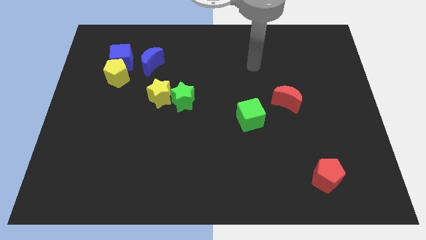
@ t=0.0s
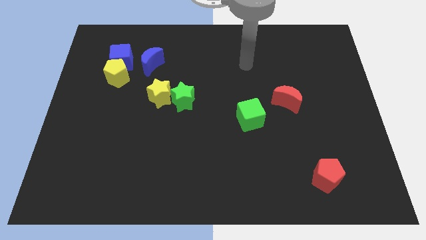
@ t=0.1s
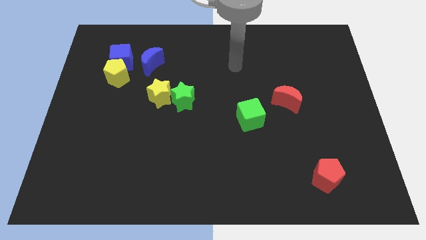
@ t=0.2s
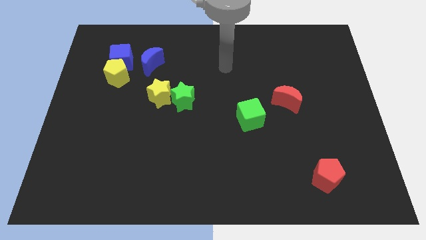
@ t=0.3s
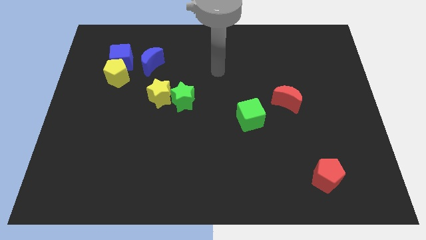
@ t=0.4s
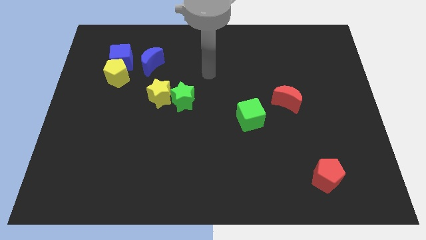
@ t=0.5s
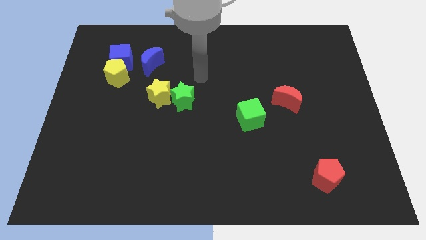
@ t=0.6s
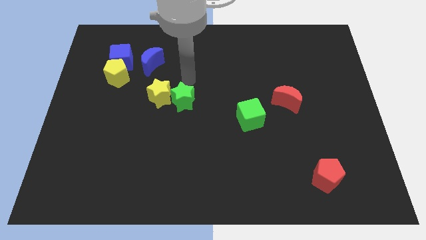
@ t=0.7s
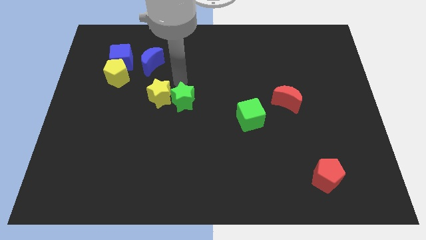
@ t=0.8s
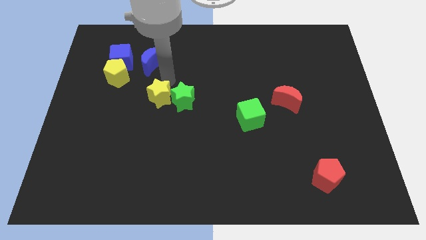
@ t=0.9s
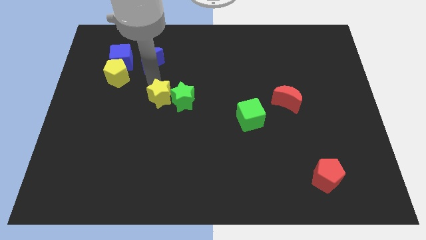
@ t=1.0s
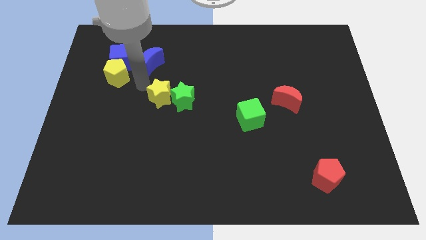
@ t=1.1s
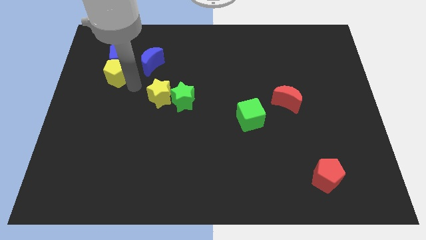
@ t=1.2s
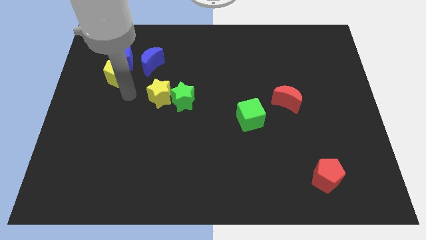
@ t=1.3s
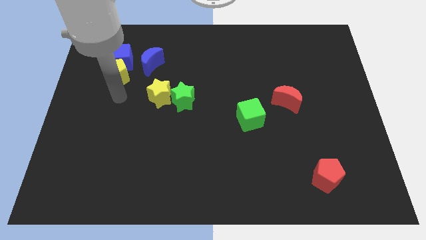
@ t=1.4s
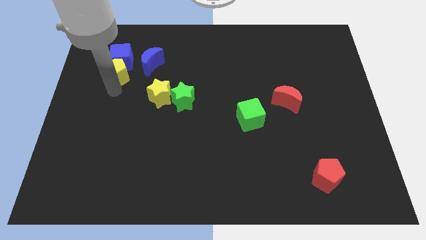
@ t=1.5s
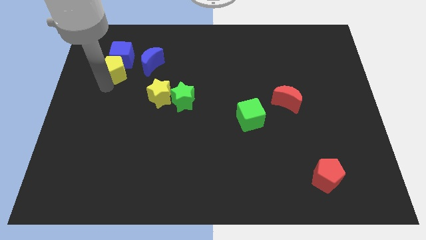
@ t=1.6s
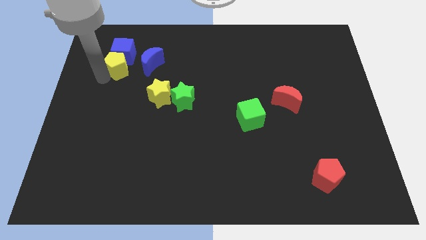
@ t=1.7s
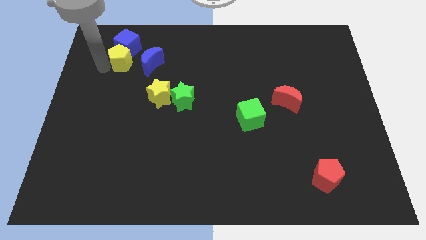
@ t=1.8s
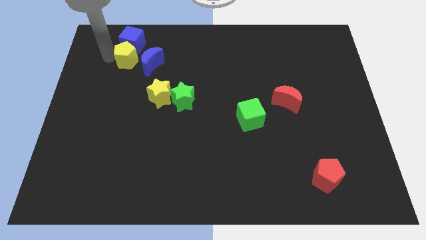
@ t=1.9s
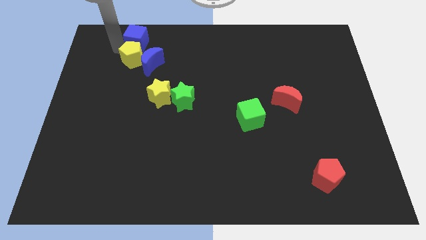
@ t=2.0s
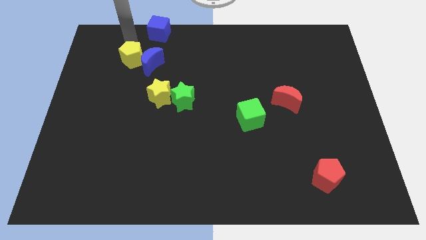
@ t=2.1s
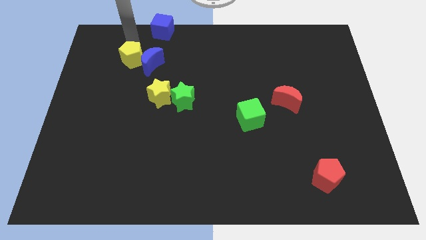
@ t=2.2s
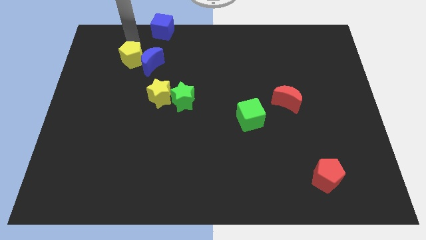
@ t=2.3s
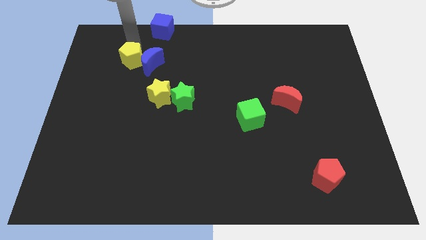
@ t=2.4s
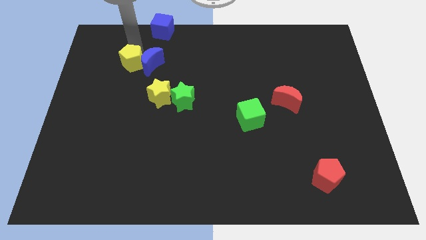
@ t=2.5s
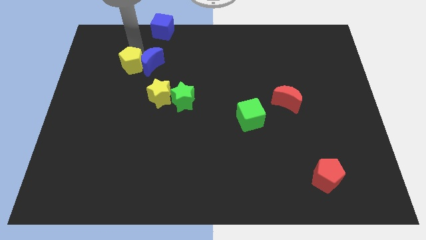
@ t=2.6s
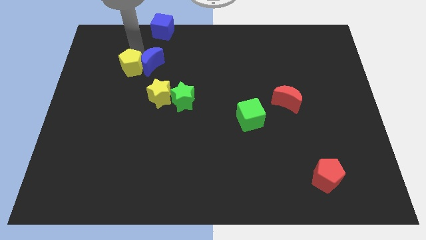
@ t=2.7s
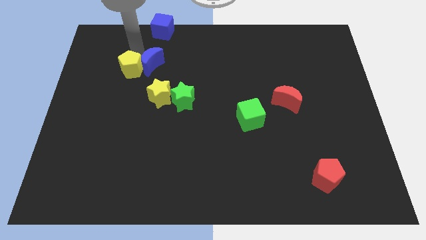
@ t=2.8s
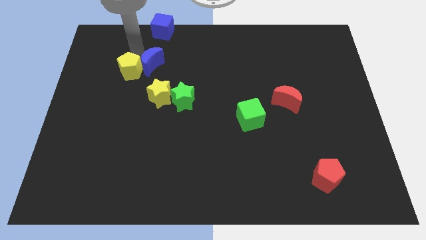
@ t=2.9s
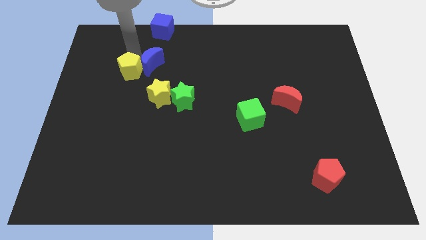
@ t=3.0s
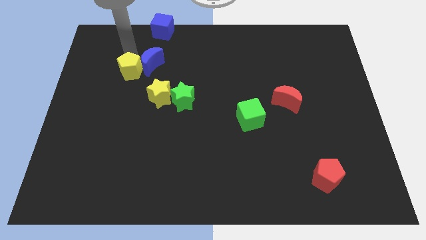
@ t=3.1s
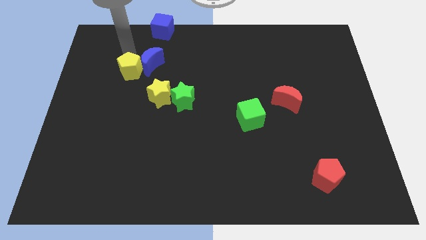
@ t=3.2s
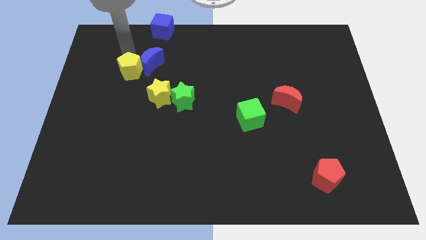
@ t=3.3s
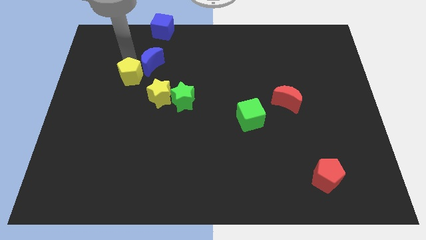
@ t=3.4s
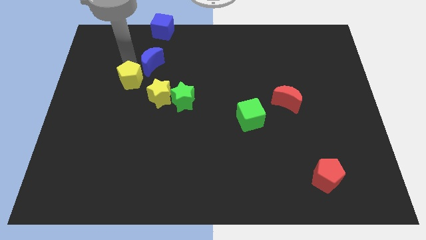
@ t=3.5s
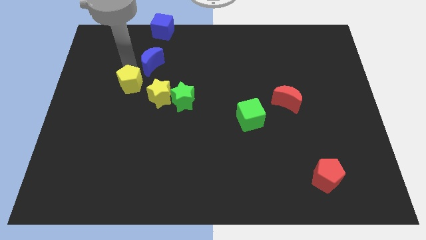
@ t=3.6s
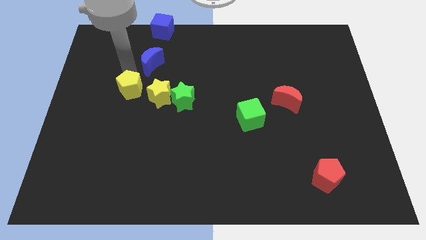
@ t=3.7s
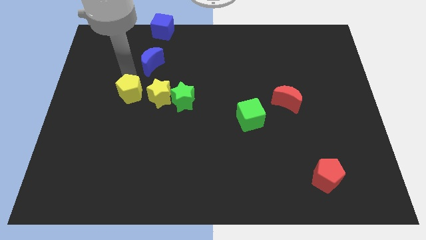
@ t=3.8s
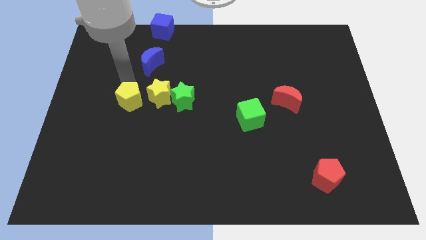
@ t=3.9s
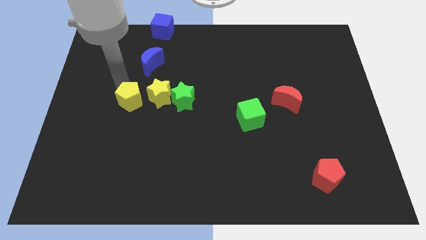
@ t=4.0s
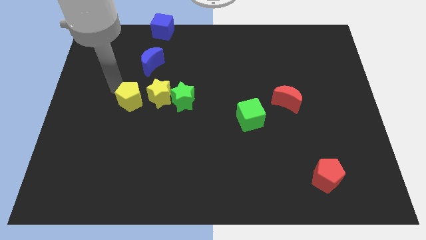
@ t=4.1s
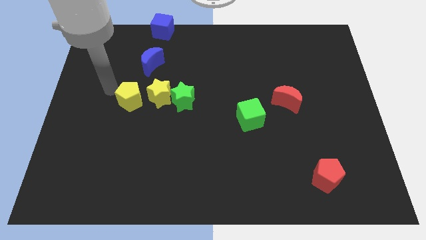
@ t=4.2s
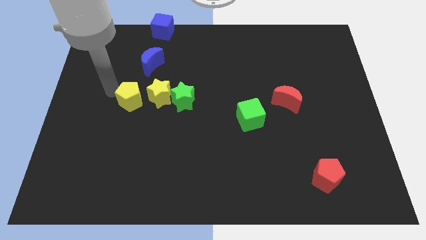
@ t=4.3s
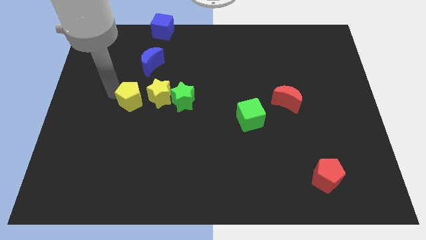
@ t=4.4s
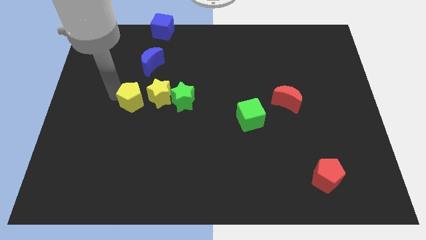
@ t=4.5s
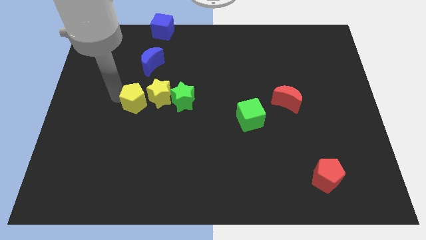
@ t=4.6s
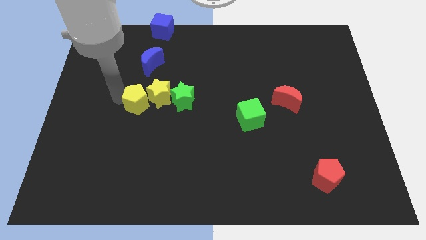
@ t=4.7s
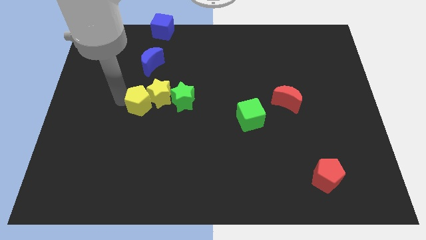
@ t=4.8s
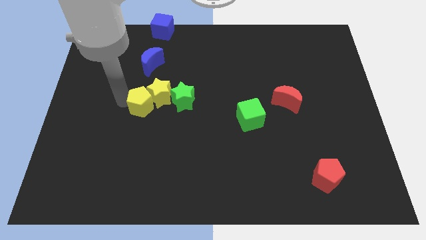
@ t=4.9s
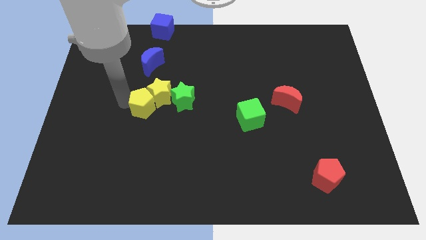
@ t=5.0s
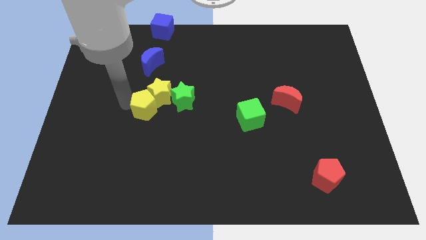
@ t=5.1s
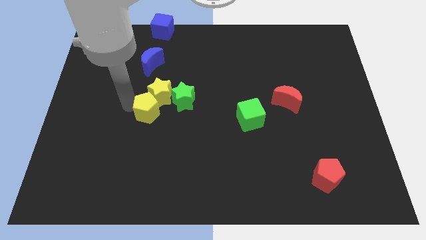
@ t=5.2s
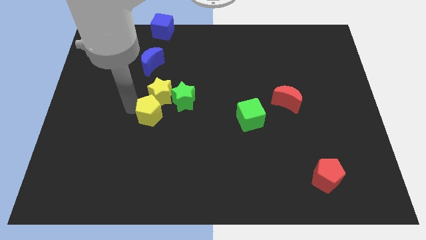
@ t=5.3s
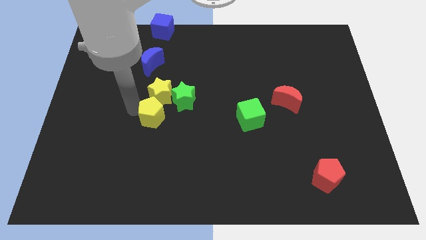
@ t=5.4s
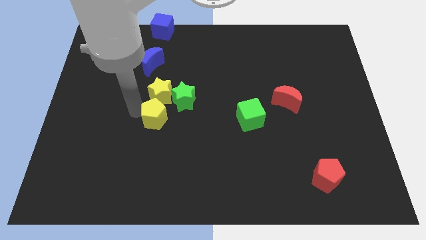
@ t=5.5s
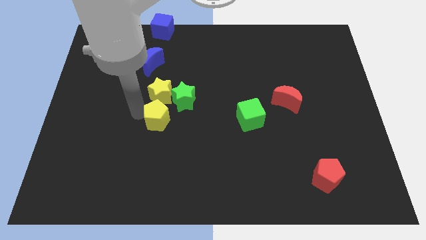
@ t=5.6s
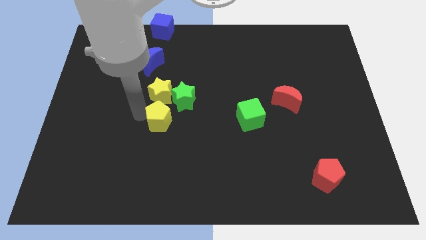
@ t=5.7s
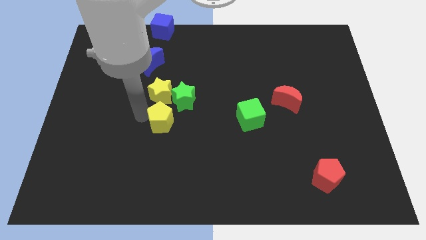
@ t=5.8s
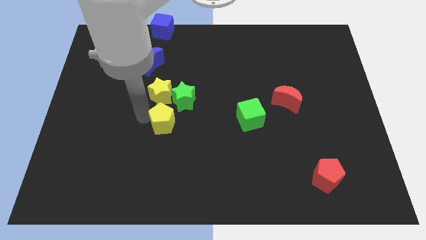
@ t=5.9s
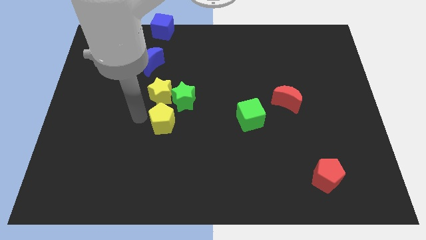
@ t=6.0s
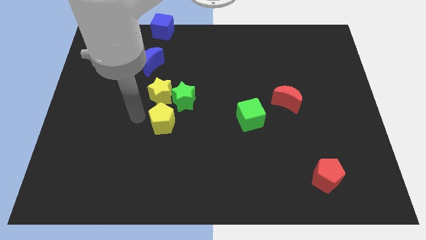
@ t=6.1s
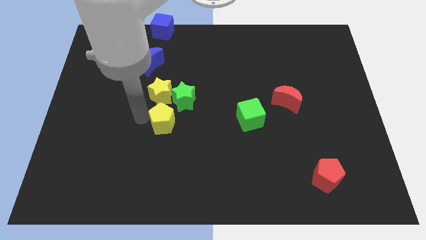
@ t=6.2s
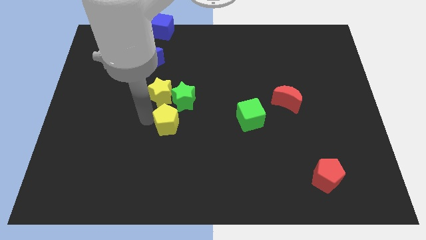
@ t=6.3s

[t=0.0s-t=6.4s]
push the yellow pentagon down and right

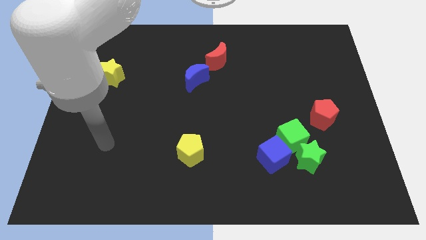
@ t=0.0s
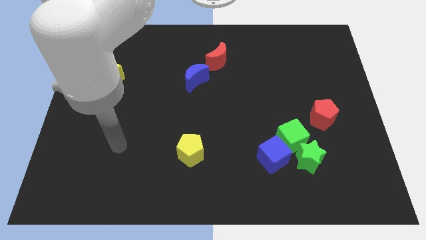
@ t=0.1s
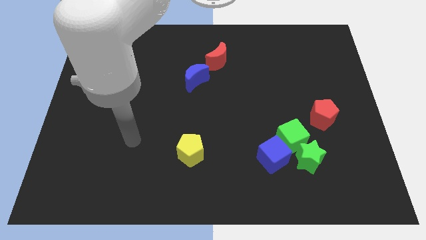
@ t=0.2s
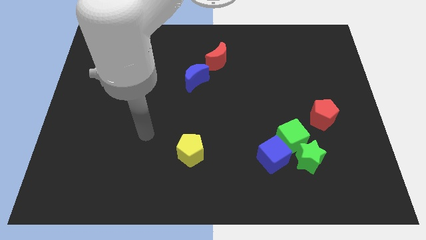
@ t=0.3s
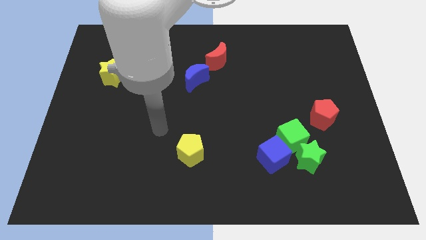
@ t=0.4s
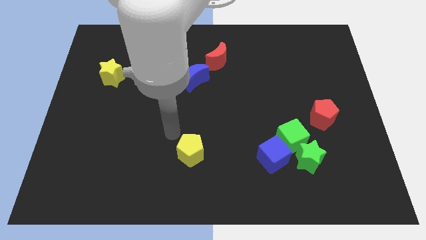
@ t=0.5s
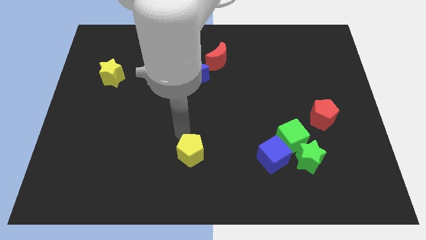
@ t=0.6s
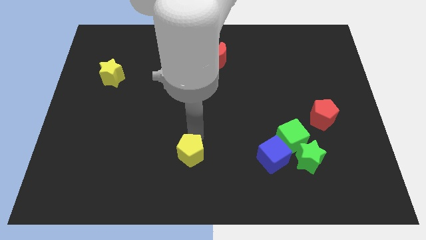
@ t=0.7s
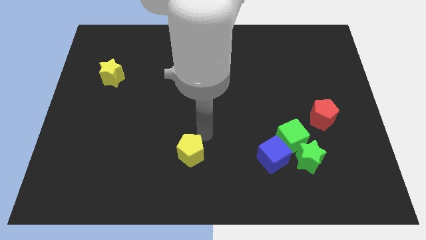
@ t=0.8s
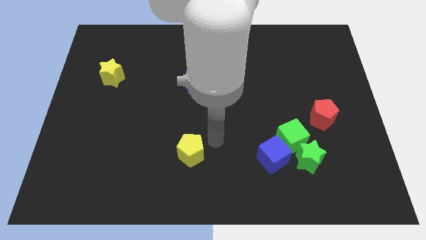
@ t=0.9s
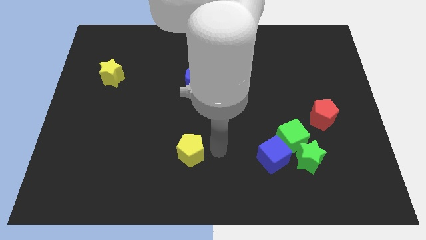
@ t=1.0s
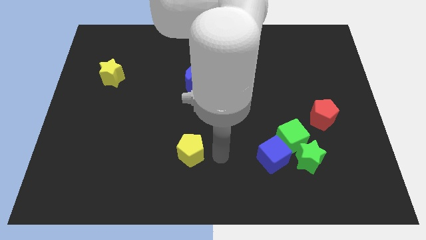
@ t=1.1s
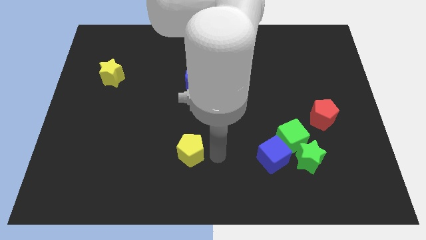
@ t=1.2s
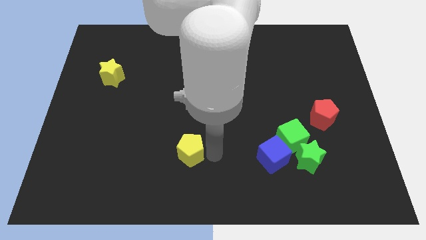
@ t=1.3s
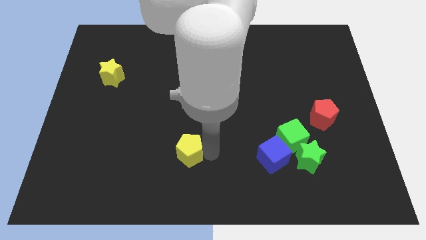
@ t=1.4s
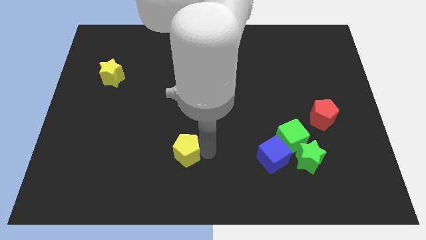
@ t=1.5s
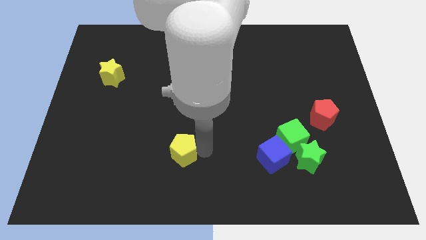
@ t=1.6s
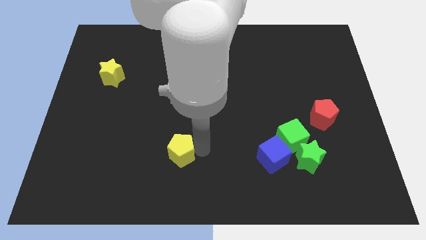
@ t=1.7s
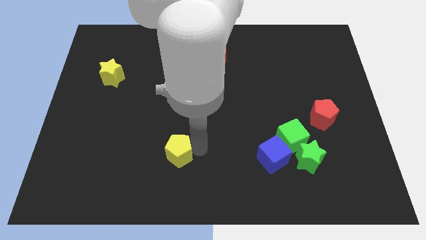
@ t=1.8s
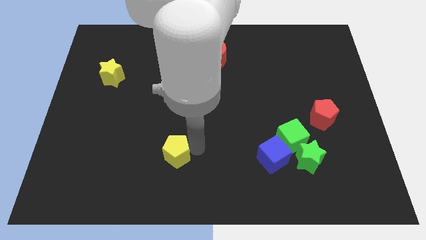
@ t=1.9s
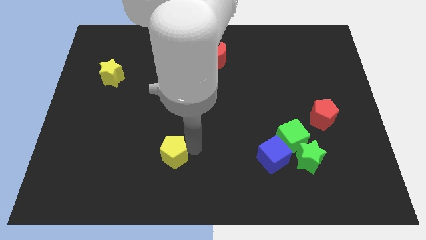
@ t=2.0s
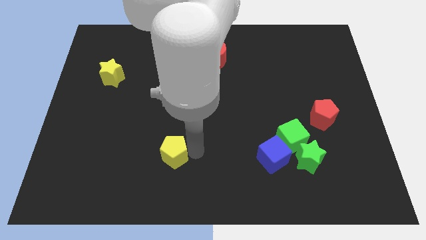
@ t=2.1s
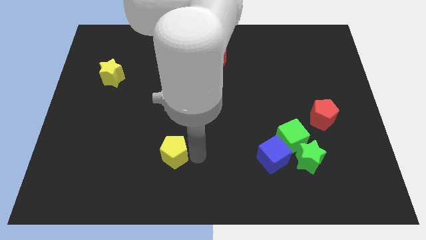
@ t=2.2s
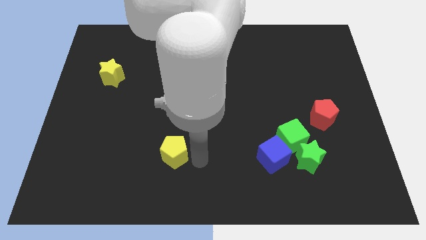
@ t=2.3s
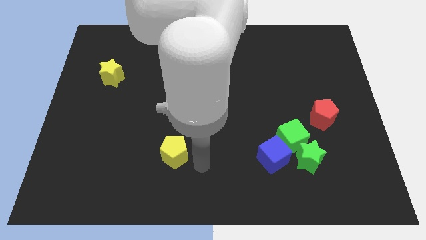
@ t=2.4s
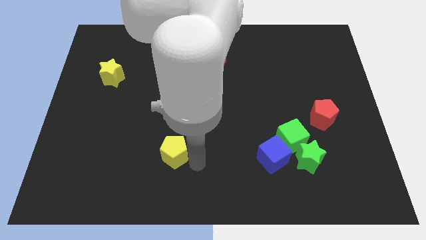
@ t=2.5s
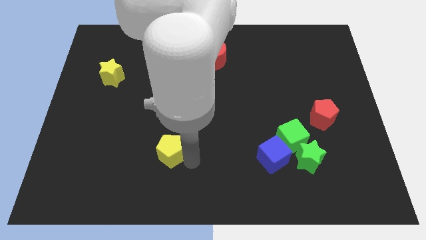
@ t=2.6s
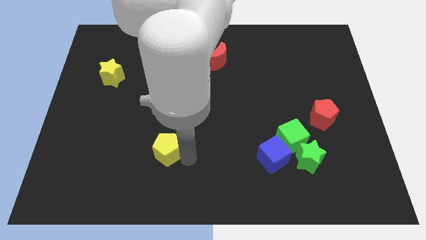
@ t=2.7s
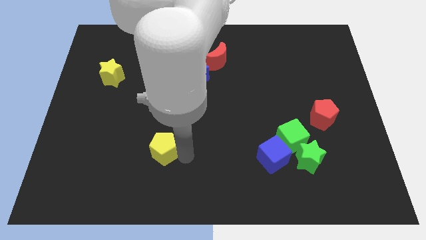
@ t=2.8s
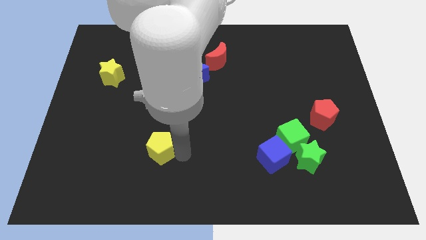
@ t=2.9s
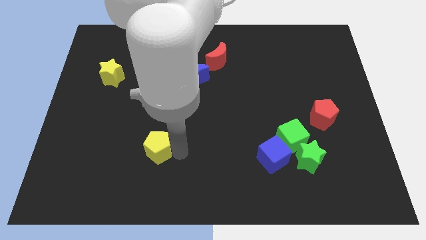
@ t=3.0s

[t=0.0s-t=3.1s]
slightly push the yellow pentagon left
